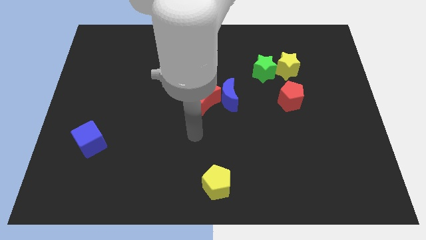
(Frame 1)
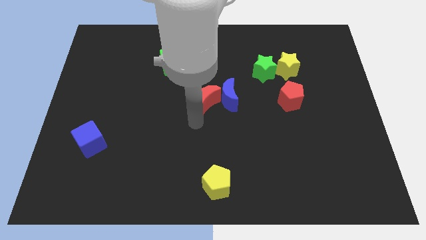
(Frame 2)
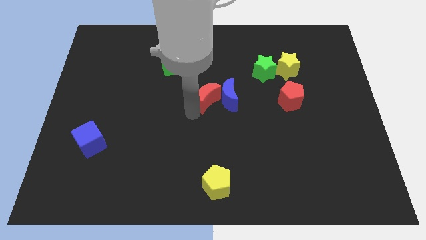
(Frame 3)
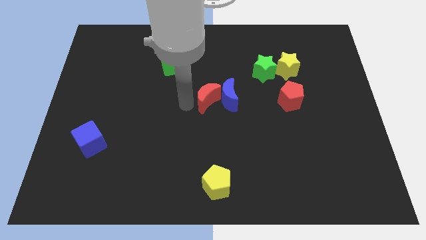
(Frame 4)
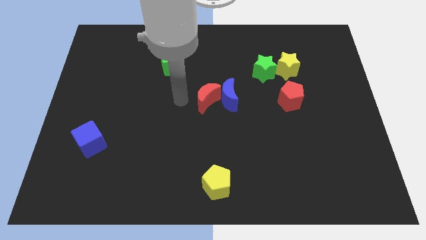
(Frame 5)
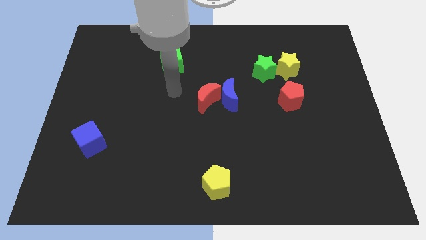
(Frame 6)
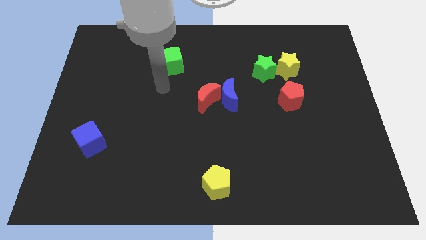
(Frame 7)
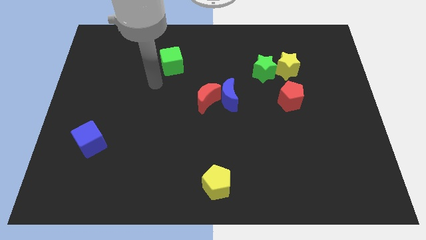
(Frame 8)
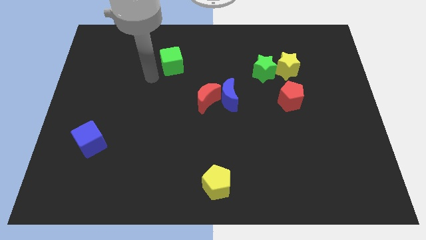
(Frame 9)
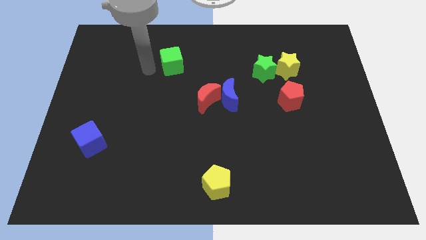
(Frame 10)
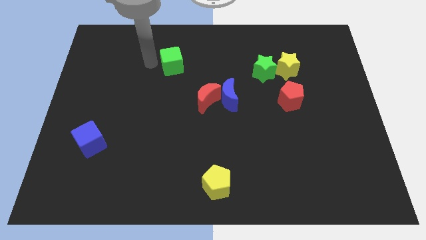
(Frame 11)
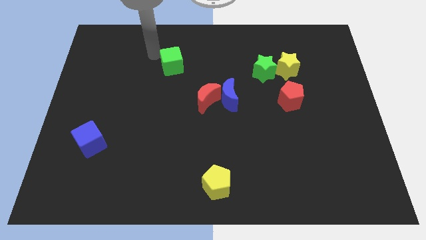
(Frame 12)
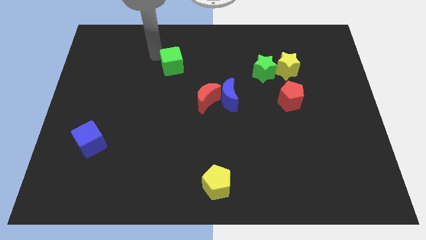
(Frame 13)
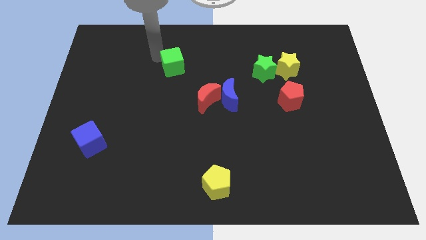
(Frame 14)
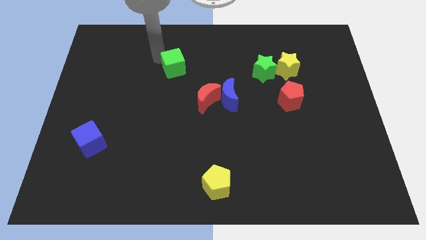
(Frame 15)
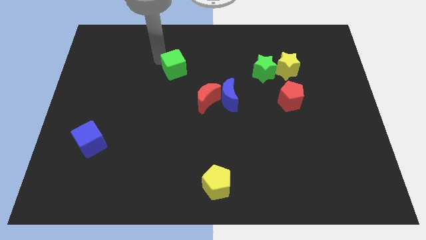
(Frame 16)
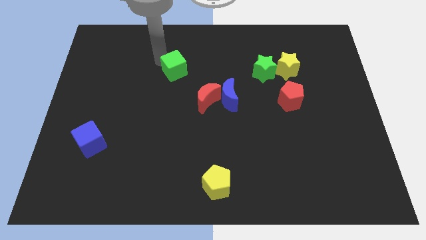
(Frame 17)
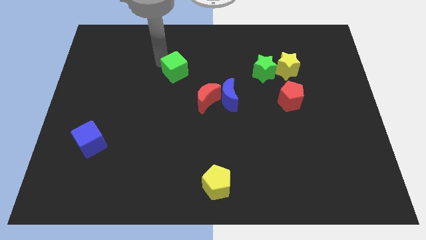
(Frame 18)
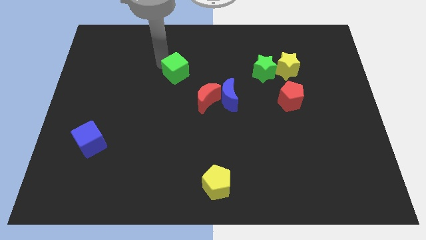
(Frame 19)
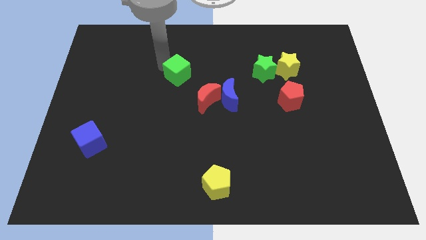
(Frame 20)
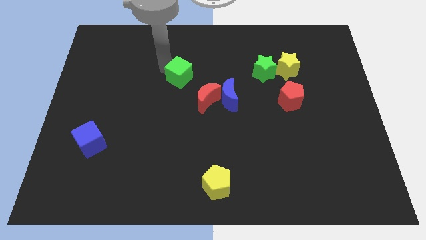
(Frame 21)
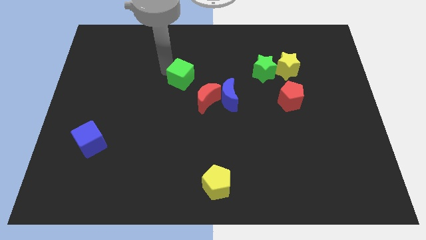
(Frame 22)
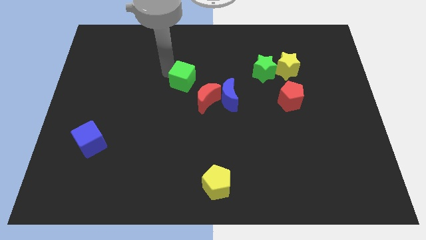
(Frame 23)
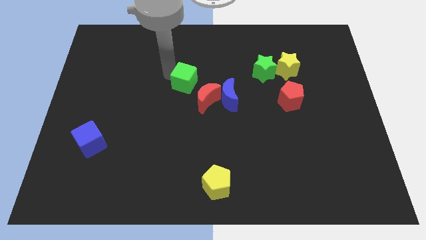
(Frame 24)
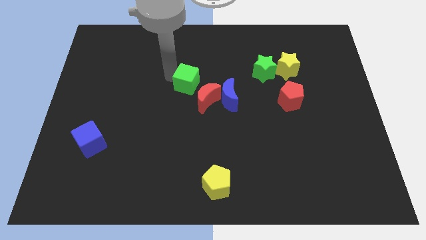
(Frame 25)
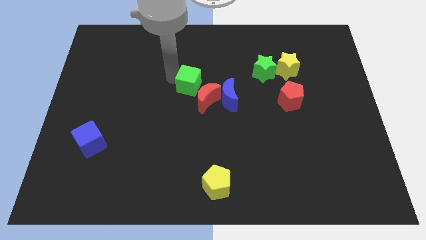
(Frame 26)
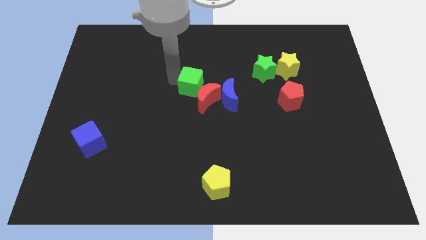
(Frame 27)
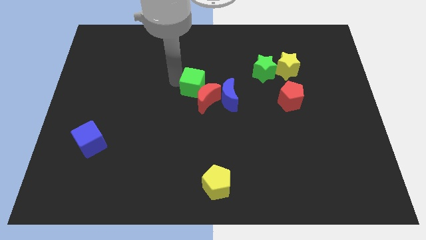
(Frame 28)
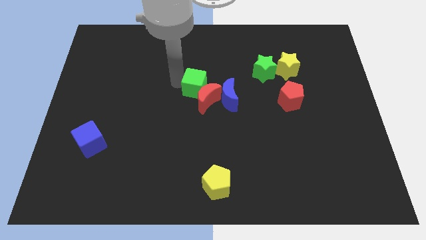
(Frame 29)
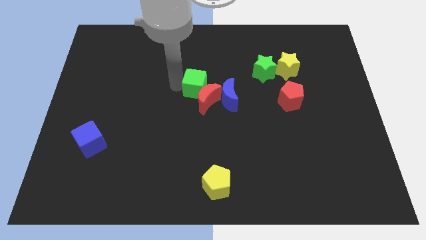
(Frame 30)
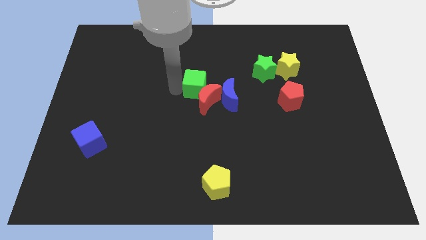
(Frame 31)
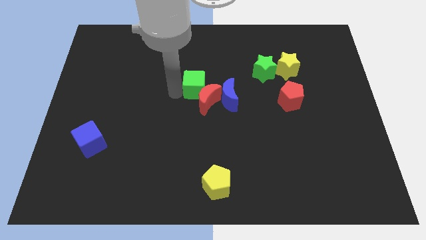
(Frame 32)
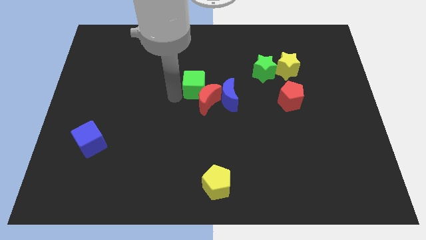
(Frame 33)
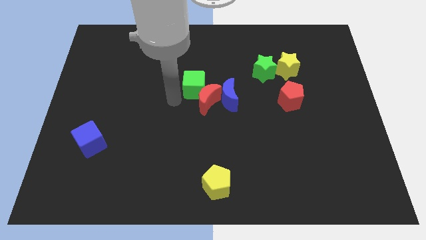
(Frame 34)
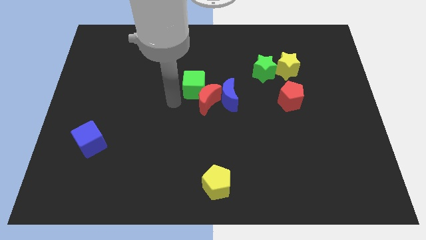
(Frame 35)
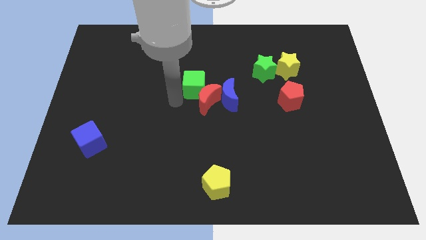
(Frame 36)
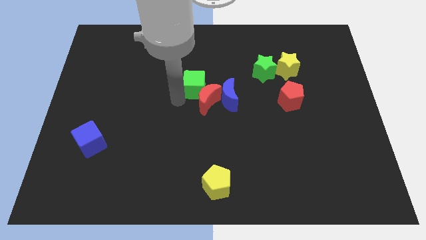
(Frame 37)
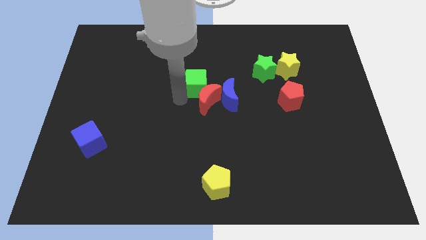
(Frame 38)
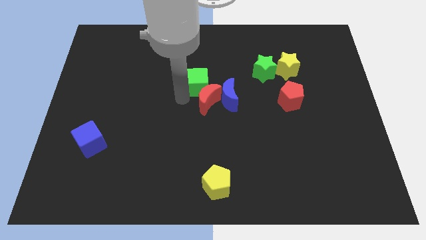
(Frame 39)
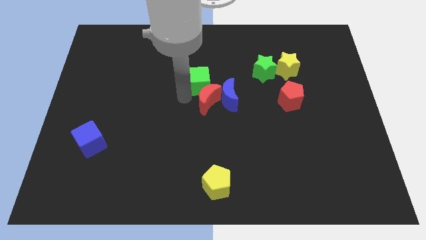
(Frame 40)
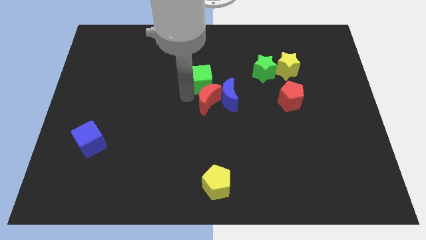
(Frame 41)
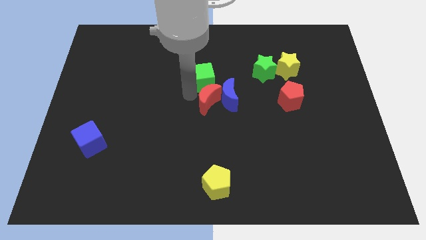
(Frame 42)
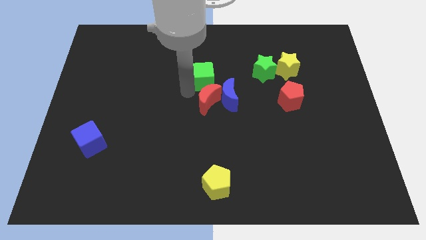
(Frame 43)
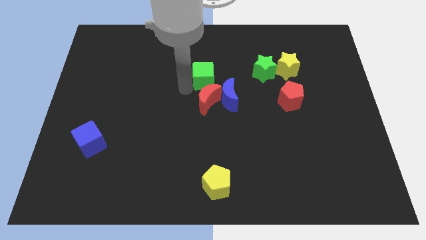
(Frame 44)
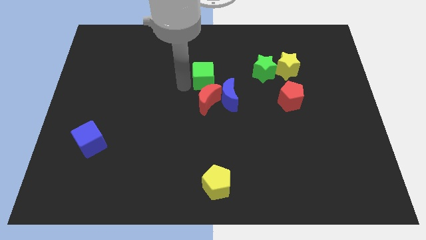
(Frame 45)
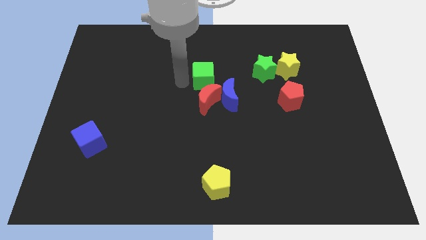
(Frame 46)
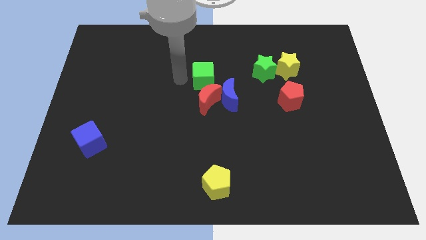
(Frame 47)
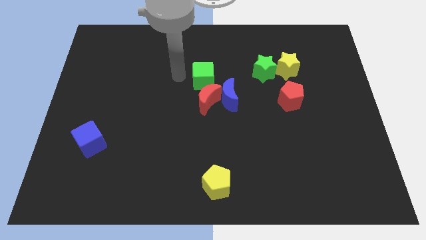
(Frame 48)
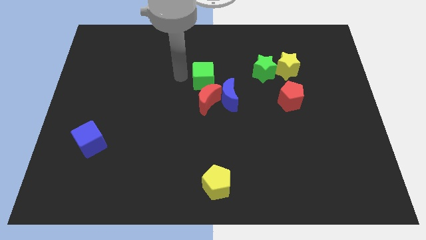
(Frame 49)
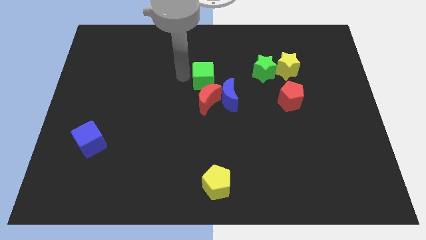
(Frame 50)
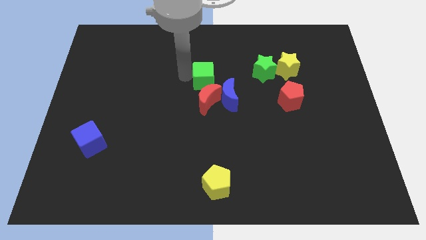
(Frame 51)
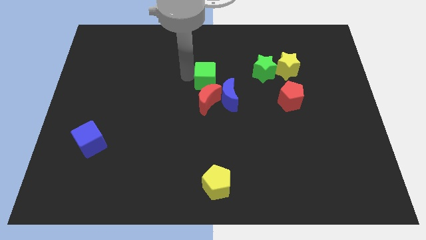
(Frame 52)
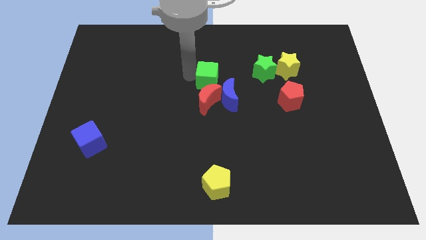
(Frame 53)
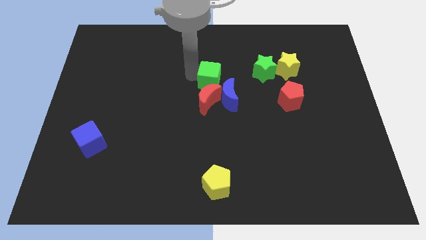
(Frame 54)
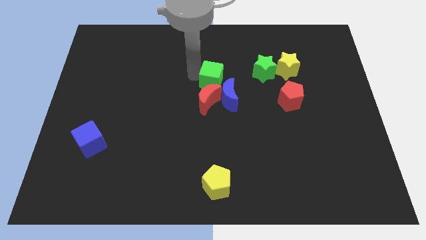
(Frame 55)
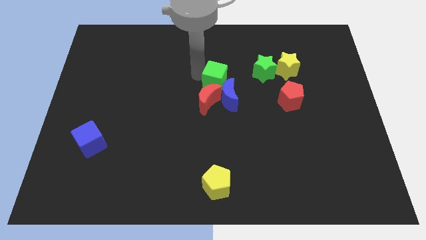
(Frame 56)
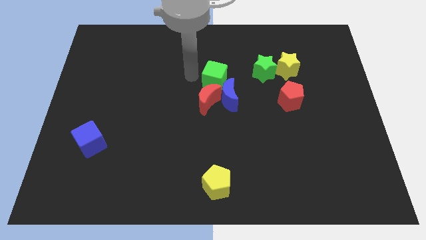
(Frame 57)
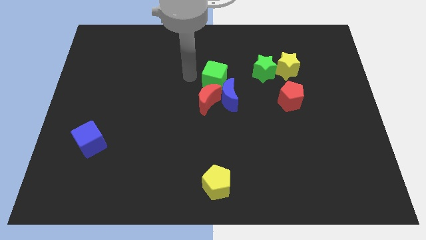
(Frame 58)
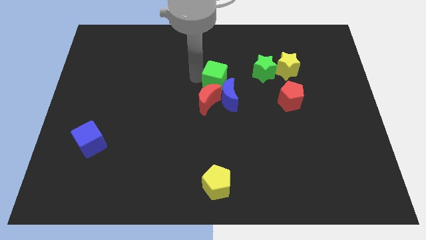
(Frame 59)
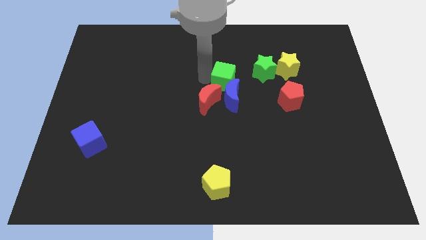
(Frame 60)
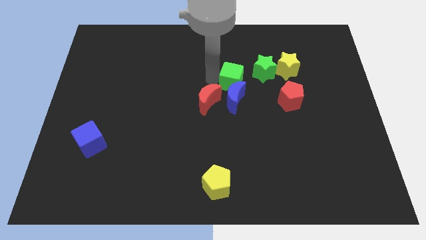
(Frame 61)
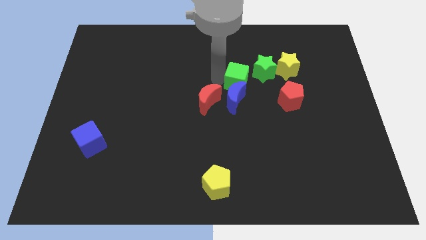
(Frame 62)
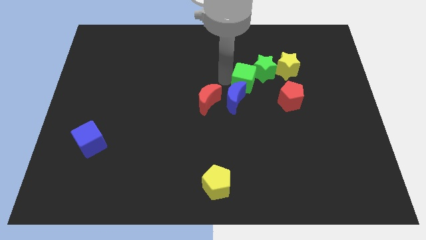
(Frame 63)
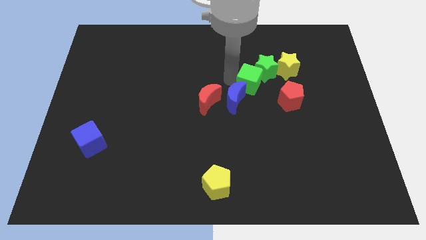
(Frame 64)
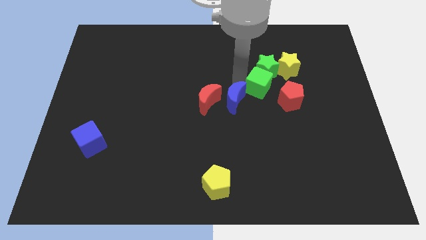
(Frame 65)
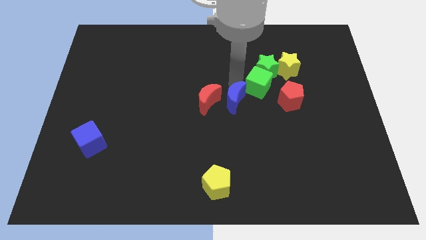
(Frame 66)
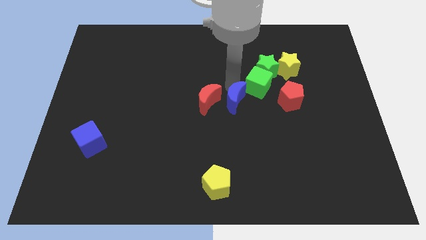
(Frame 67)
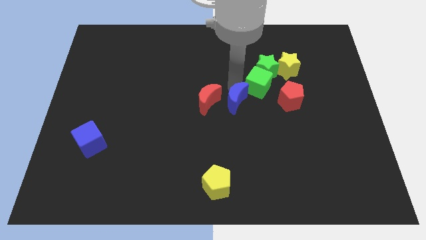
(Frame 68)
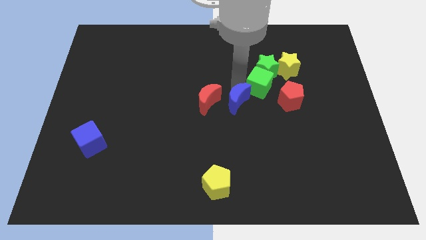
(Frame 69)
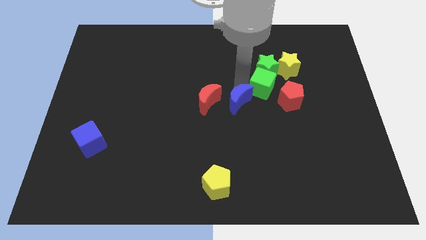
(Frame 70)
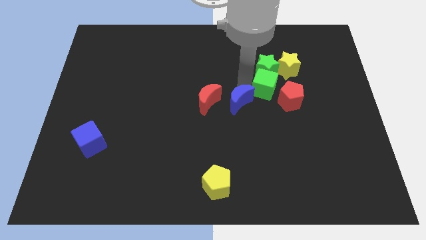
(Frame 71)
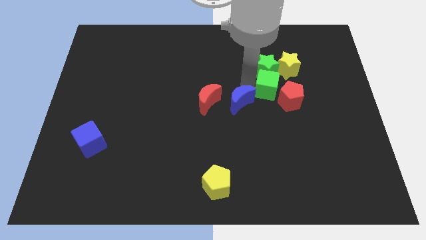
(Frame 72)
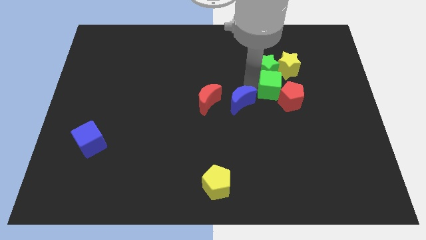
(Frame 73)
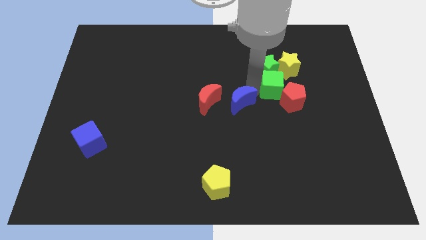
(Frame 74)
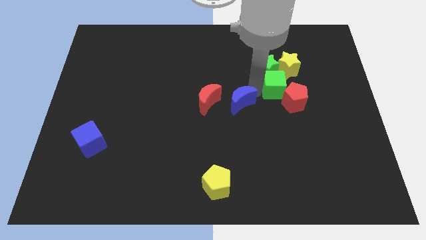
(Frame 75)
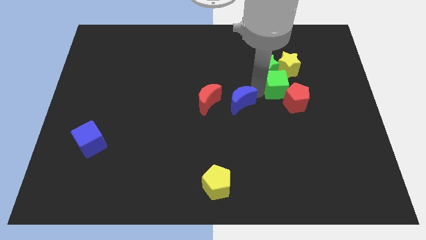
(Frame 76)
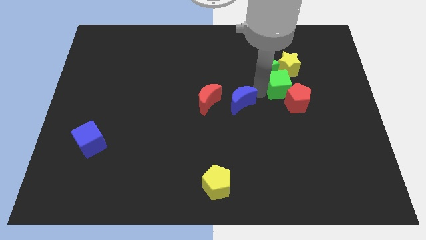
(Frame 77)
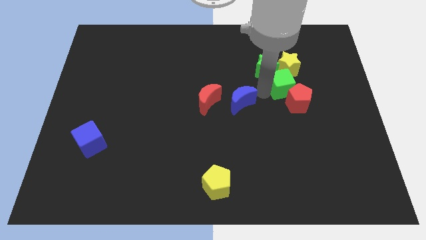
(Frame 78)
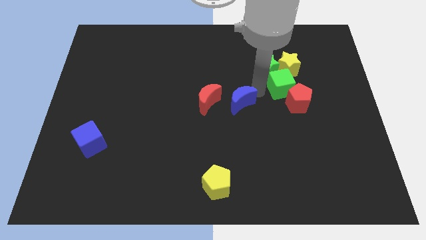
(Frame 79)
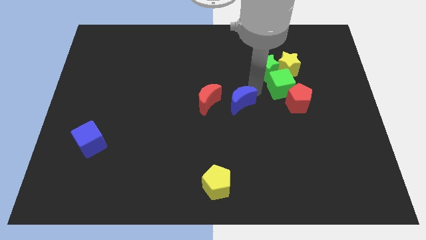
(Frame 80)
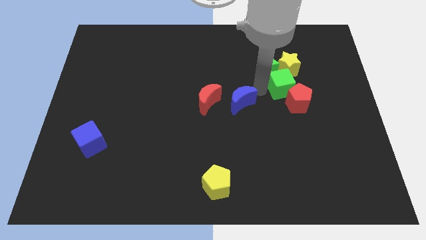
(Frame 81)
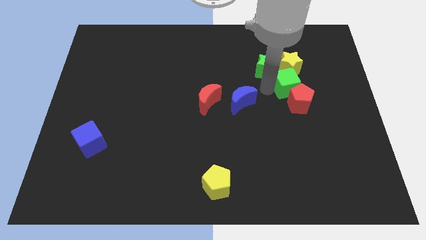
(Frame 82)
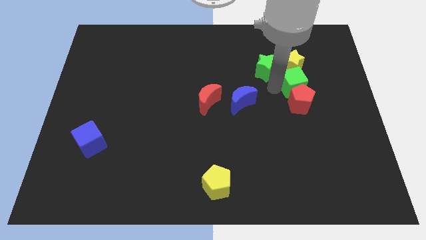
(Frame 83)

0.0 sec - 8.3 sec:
push the green cube diagonally down and to the right of the yellow star
